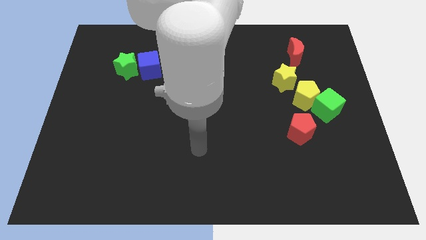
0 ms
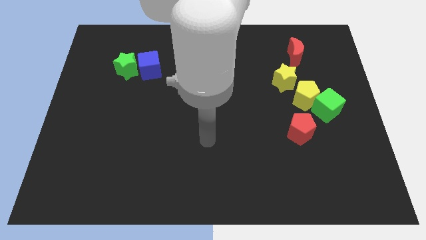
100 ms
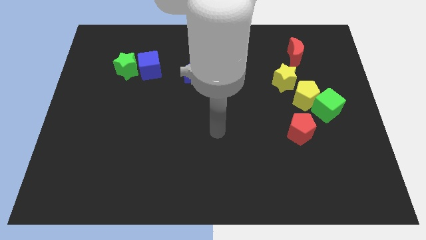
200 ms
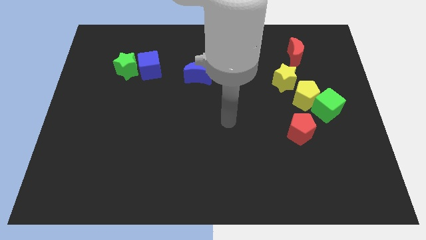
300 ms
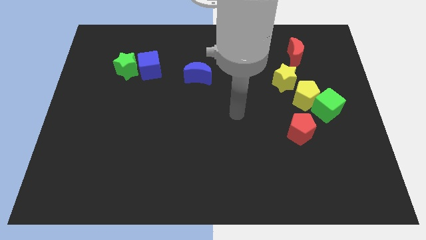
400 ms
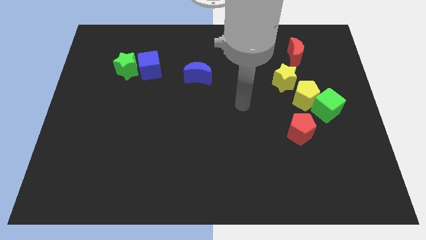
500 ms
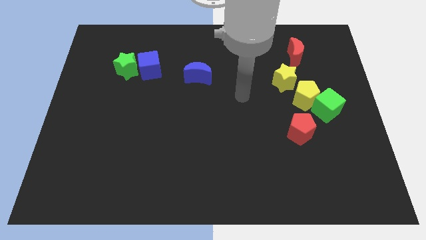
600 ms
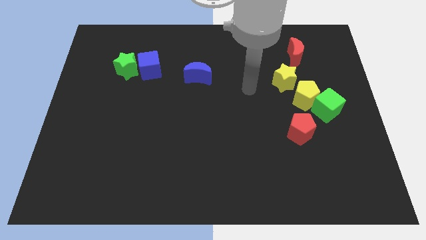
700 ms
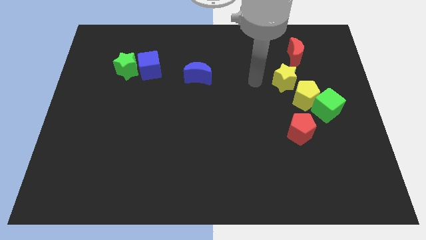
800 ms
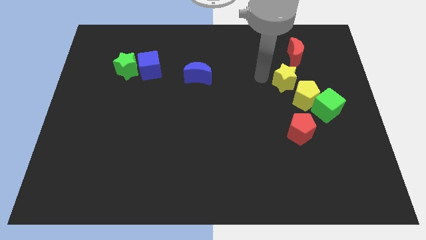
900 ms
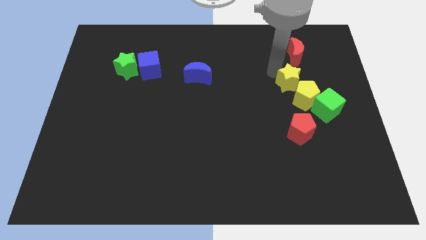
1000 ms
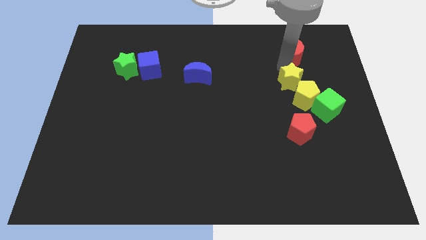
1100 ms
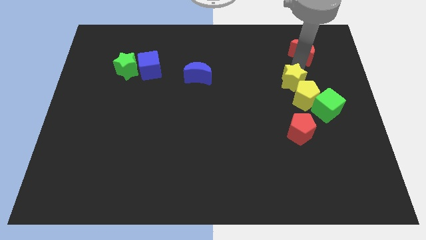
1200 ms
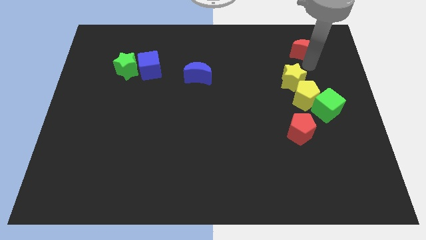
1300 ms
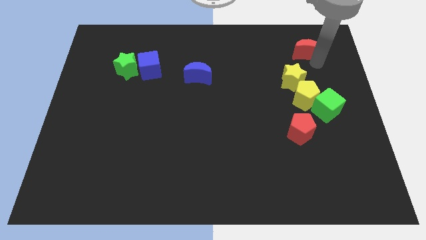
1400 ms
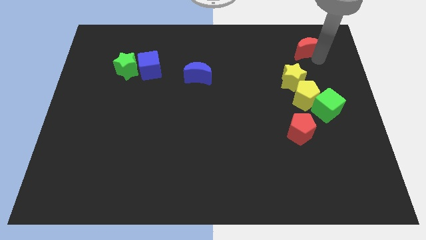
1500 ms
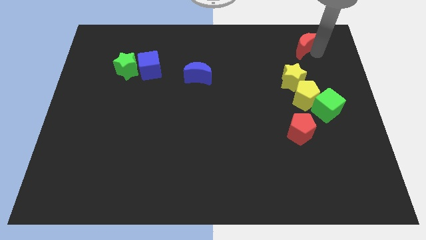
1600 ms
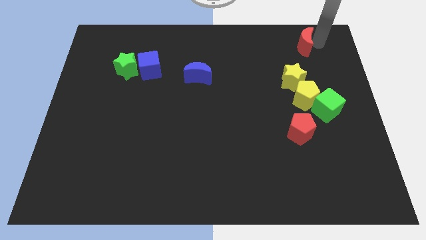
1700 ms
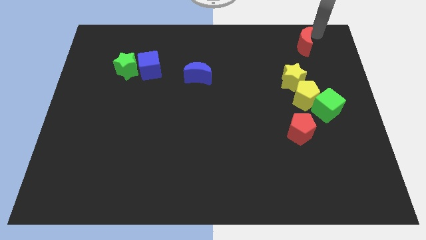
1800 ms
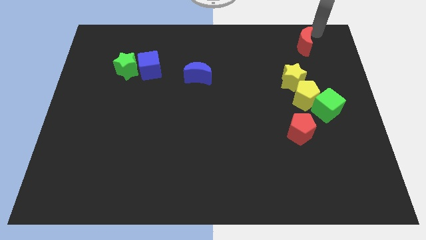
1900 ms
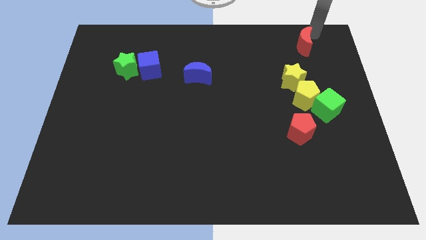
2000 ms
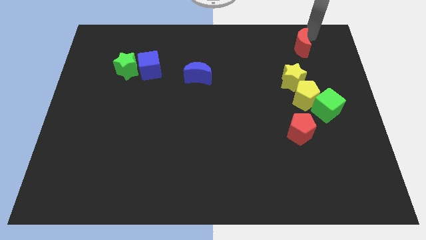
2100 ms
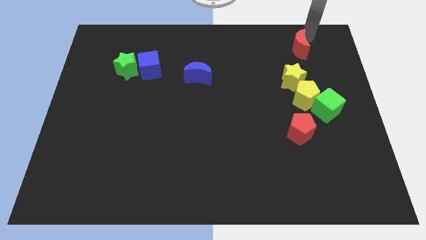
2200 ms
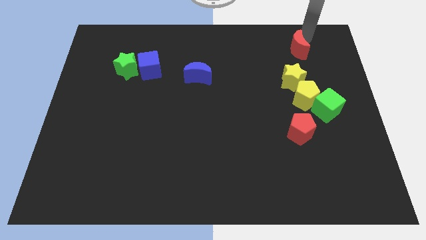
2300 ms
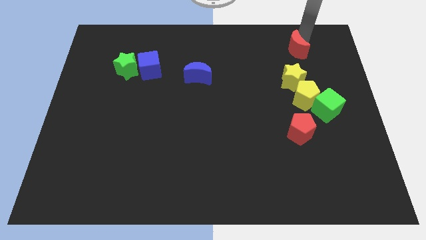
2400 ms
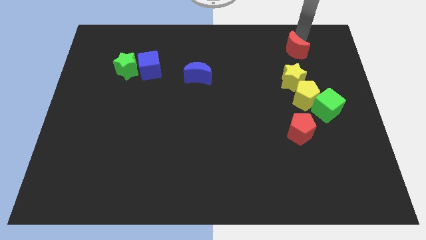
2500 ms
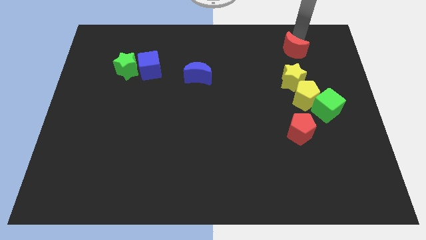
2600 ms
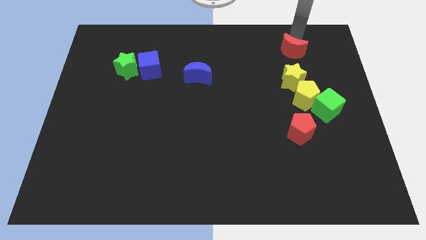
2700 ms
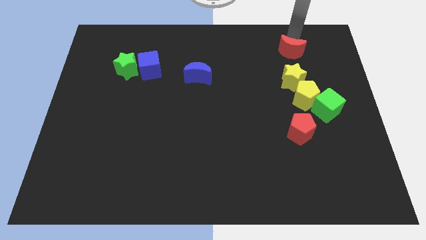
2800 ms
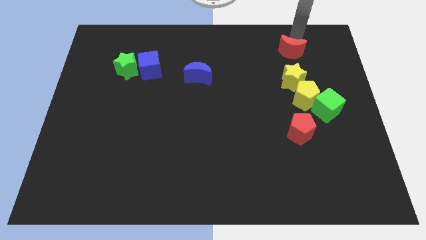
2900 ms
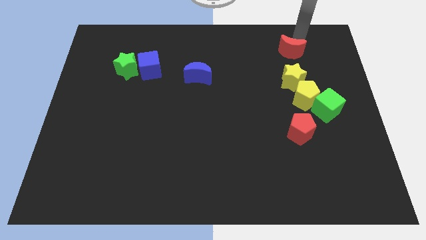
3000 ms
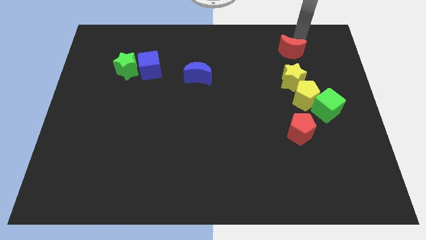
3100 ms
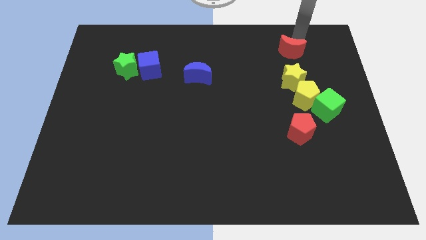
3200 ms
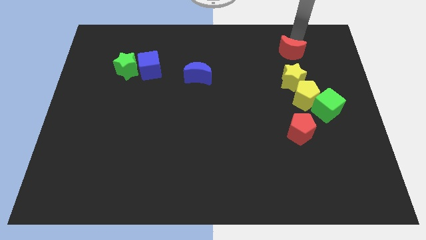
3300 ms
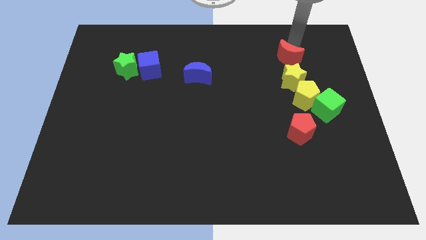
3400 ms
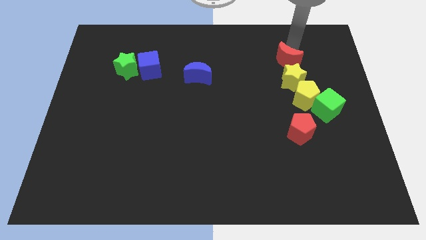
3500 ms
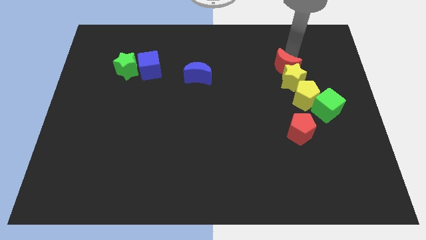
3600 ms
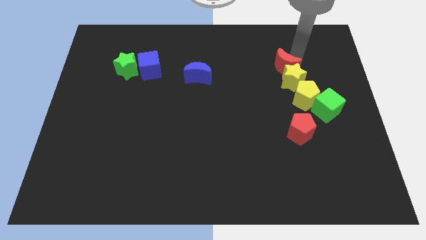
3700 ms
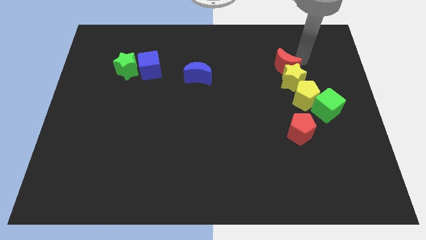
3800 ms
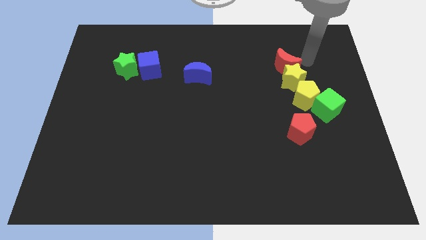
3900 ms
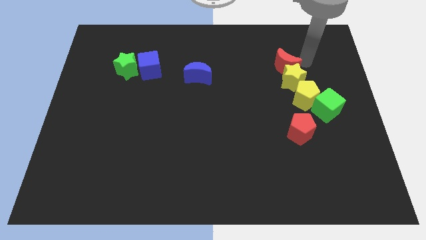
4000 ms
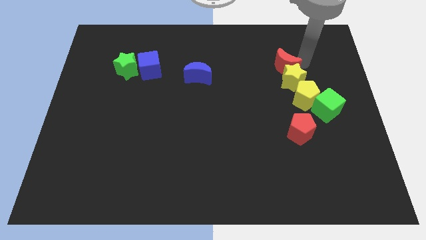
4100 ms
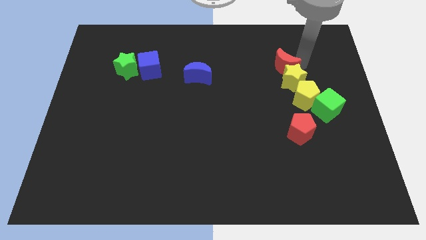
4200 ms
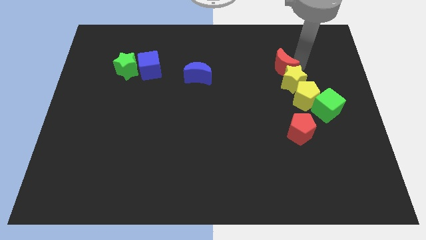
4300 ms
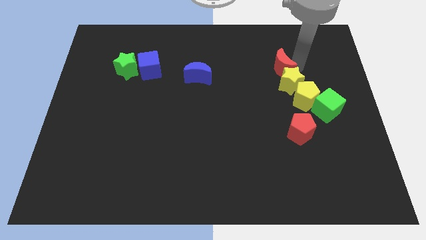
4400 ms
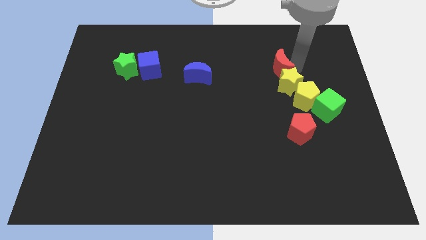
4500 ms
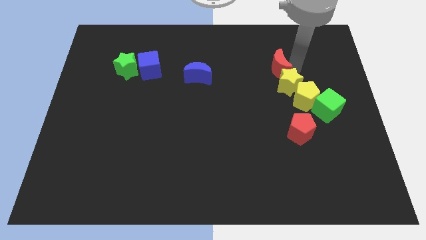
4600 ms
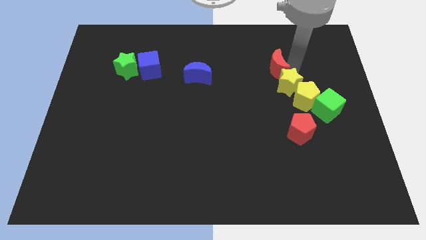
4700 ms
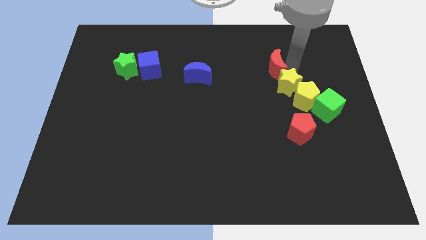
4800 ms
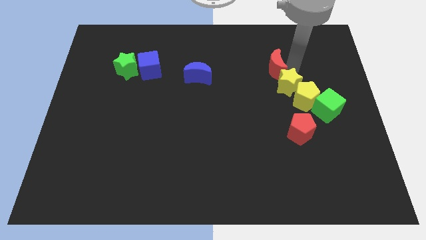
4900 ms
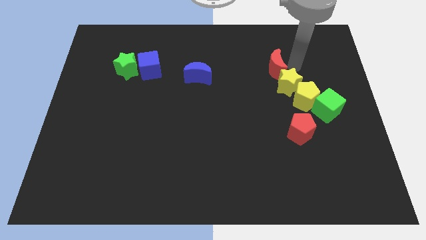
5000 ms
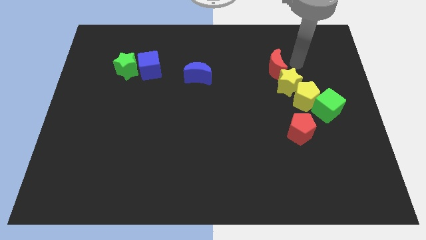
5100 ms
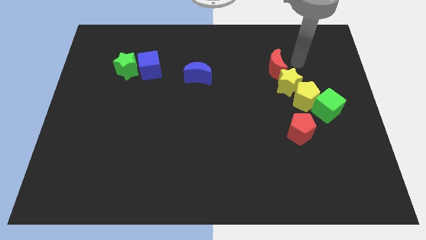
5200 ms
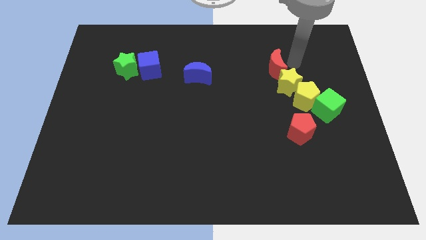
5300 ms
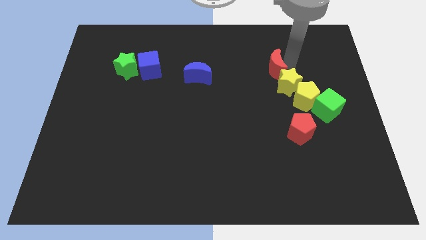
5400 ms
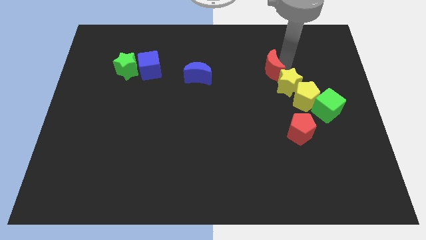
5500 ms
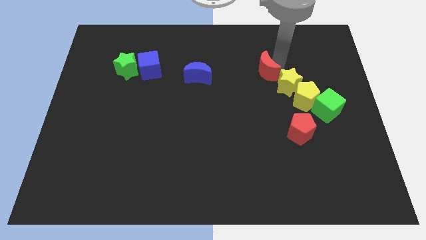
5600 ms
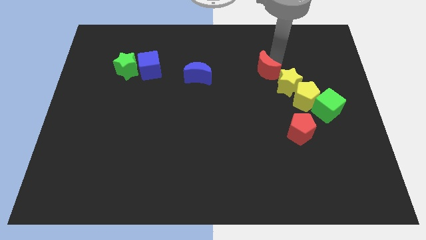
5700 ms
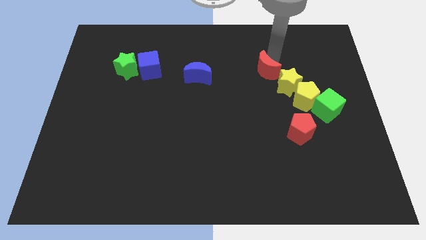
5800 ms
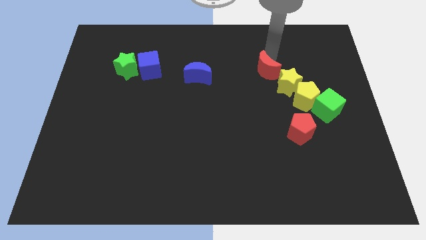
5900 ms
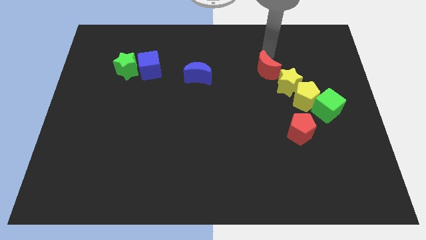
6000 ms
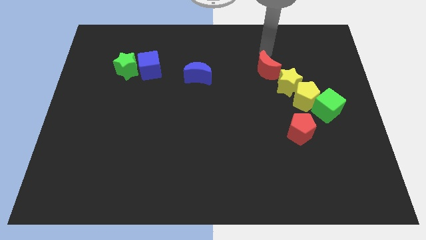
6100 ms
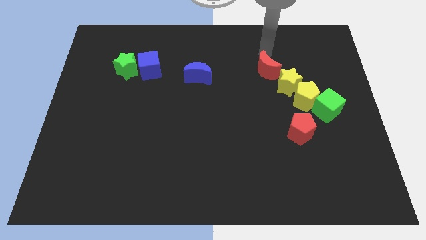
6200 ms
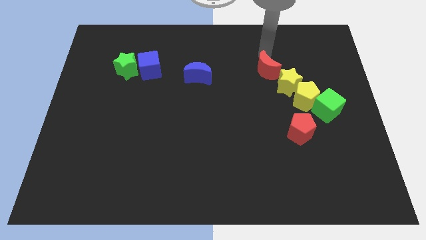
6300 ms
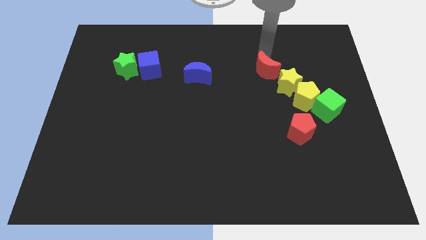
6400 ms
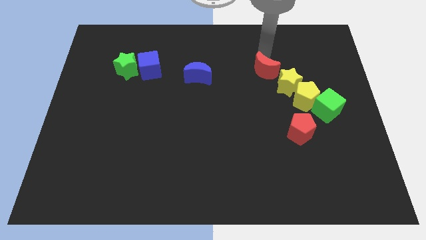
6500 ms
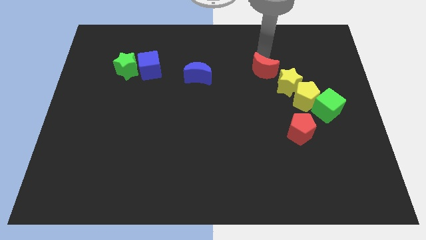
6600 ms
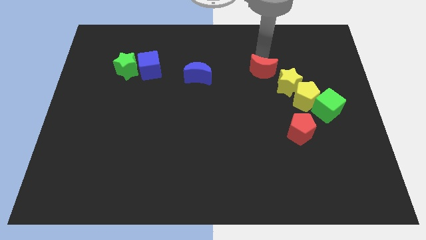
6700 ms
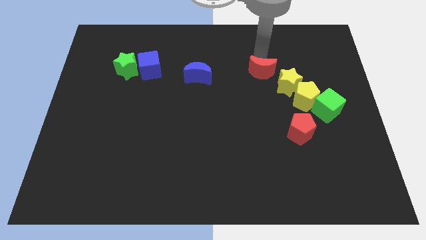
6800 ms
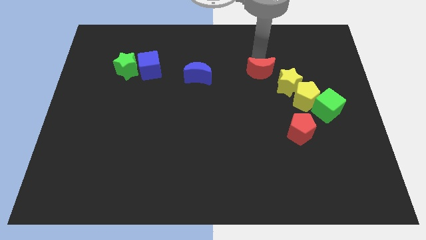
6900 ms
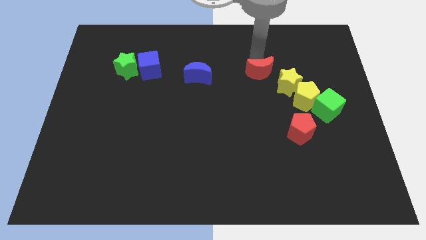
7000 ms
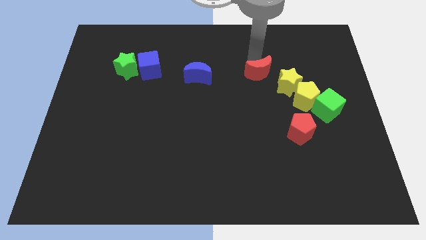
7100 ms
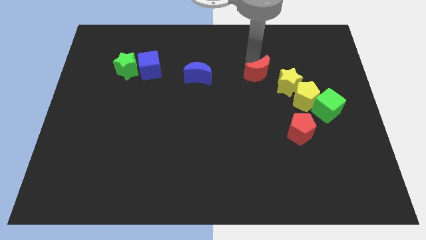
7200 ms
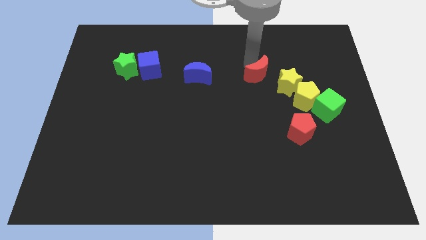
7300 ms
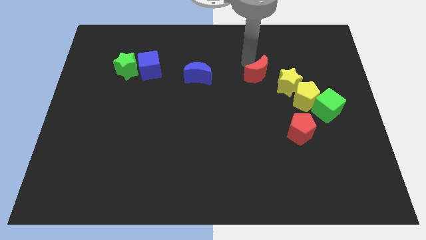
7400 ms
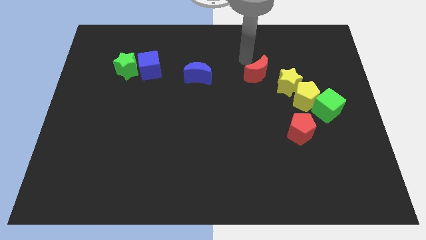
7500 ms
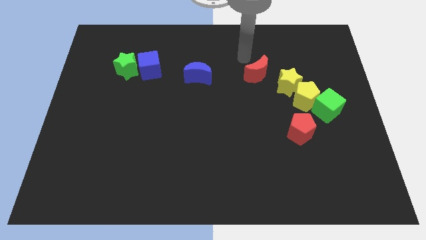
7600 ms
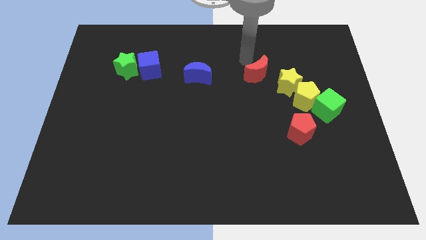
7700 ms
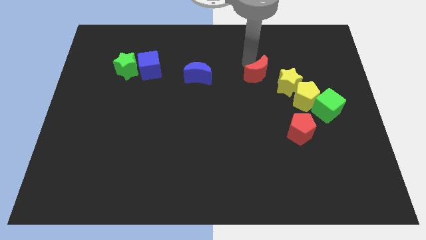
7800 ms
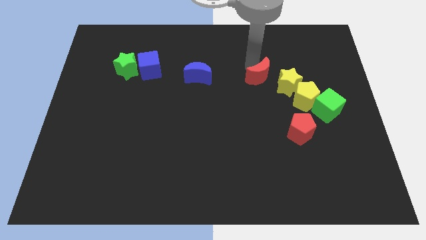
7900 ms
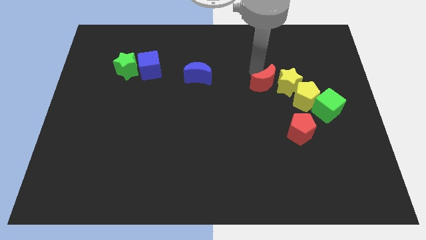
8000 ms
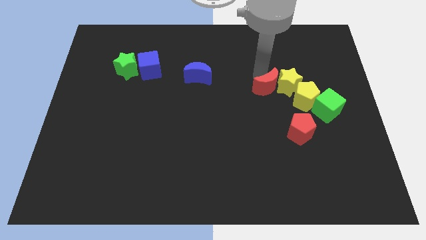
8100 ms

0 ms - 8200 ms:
move the red moon a little down
